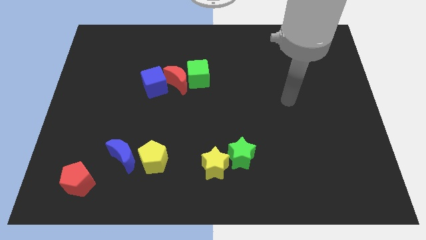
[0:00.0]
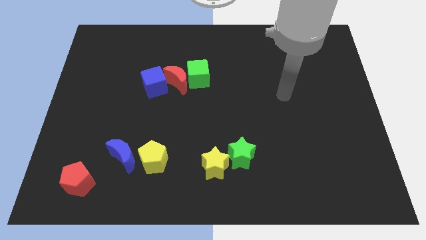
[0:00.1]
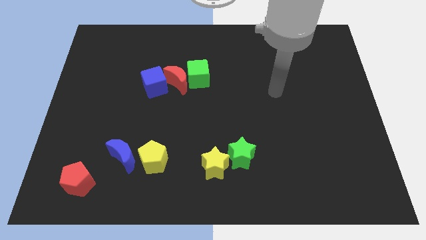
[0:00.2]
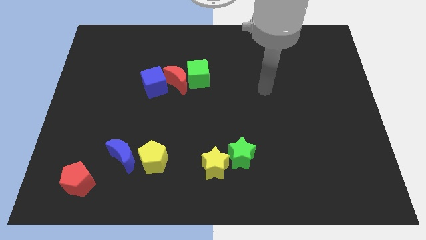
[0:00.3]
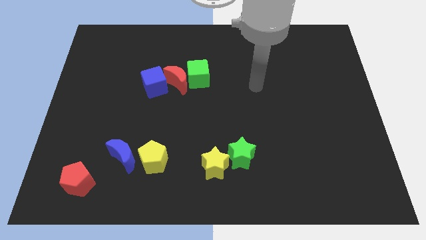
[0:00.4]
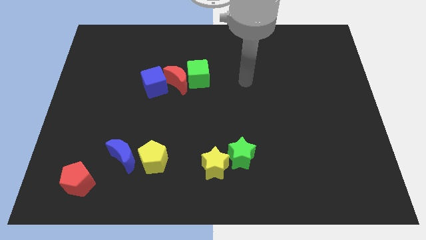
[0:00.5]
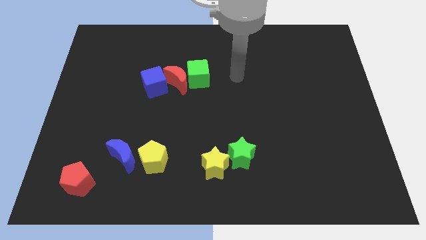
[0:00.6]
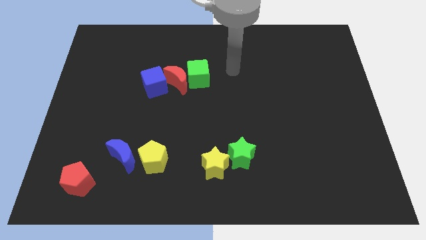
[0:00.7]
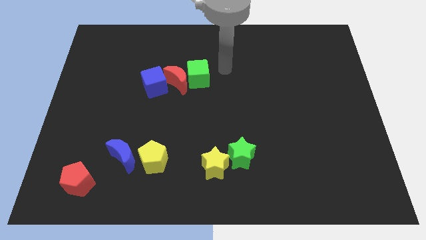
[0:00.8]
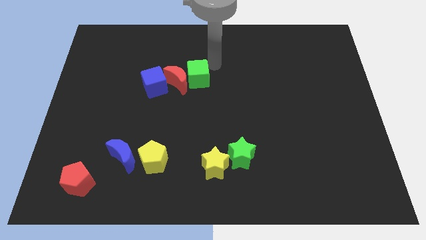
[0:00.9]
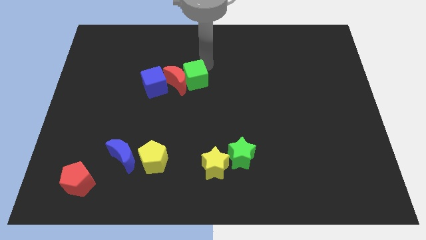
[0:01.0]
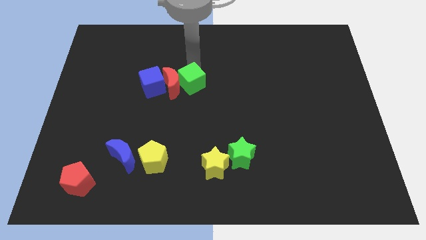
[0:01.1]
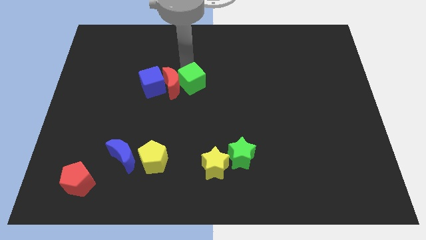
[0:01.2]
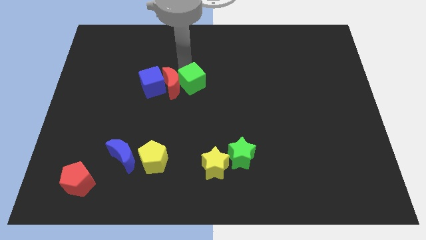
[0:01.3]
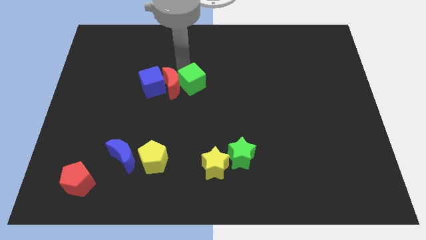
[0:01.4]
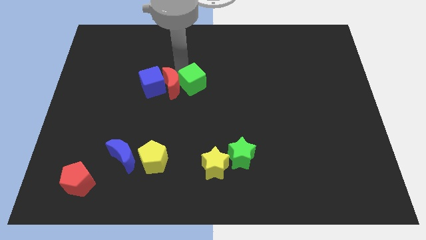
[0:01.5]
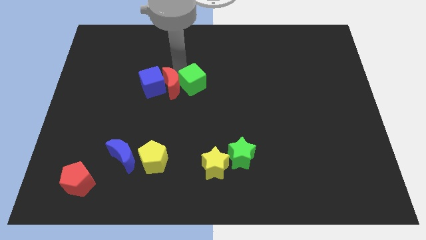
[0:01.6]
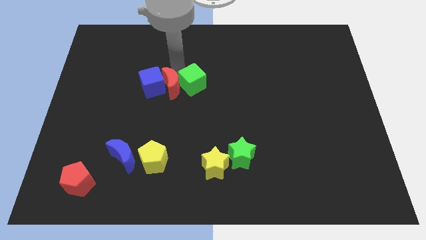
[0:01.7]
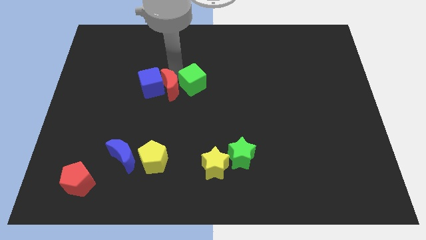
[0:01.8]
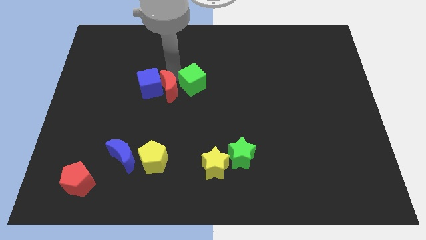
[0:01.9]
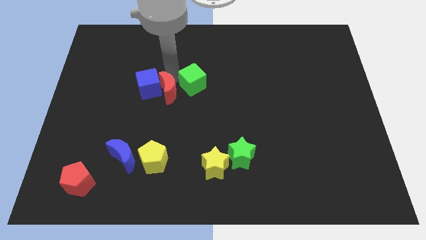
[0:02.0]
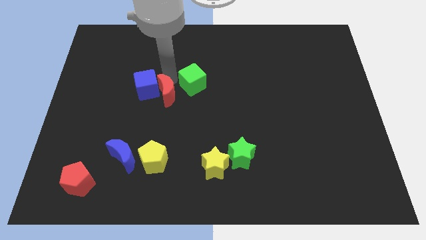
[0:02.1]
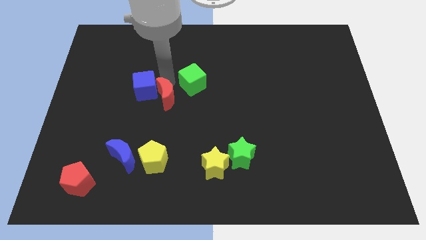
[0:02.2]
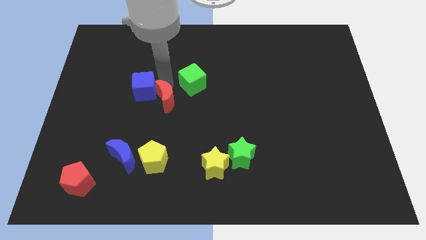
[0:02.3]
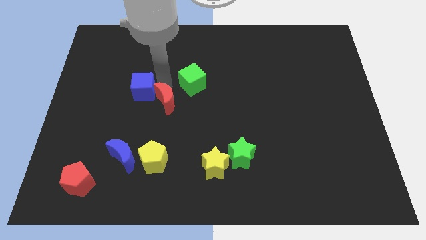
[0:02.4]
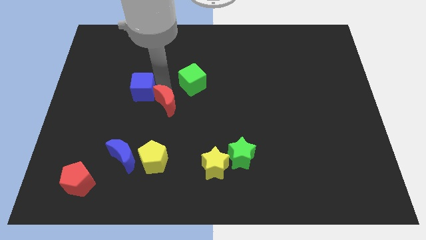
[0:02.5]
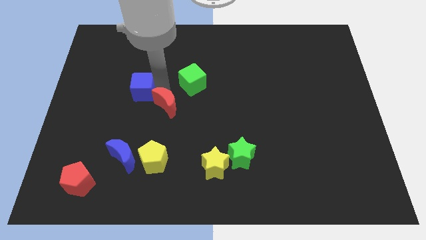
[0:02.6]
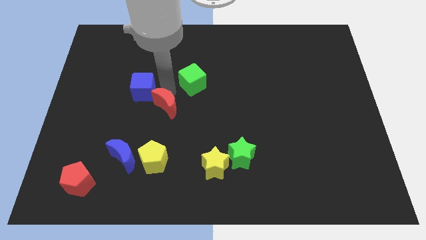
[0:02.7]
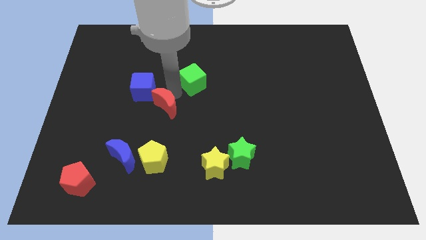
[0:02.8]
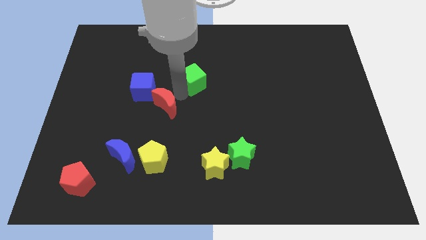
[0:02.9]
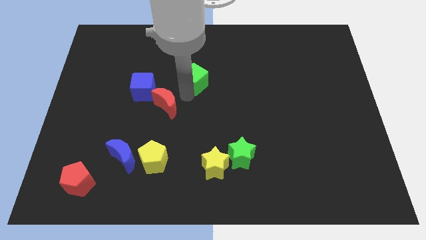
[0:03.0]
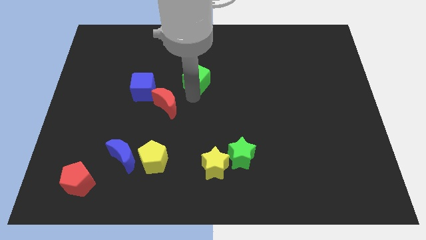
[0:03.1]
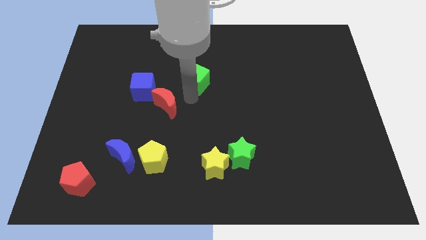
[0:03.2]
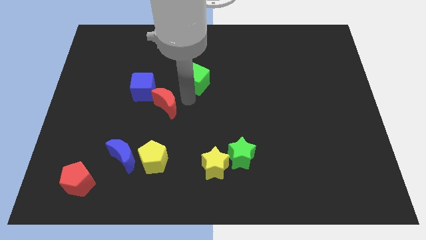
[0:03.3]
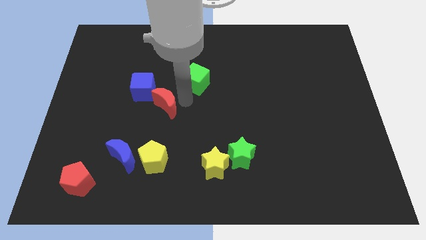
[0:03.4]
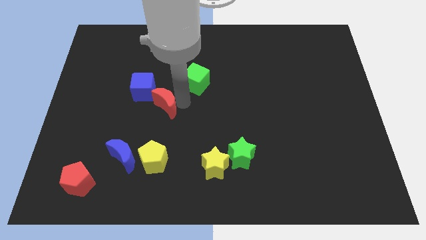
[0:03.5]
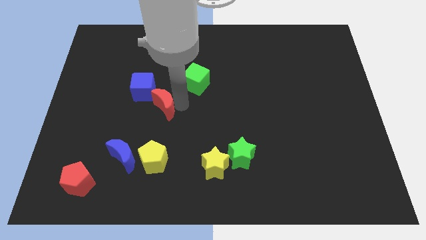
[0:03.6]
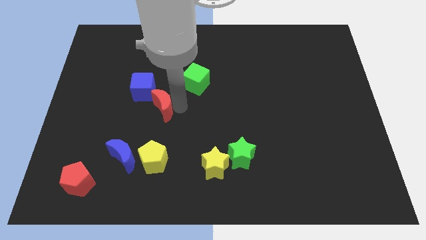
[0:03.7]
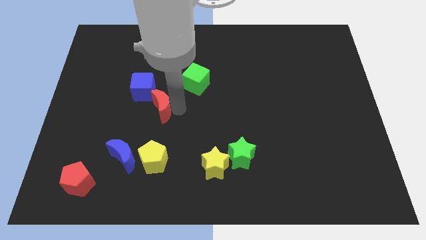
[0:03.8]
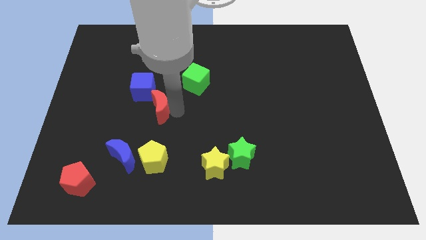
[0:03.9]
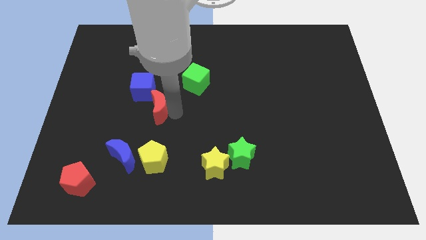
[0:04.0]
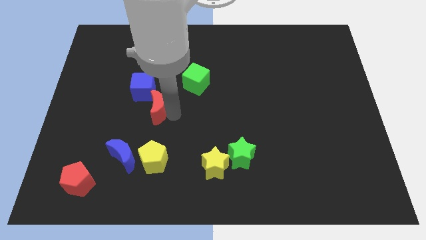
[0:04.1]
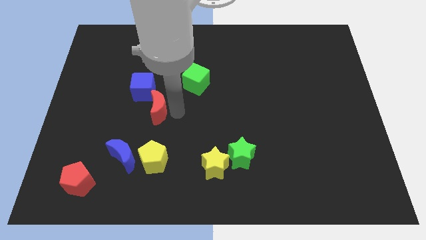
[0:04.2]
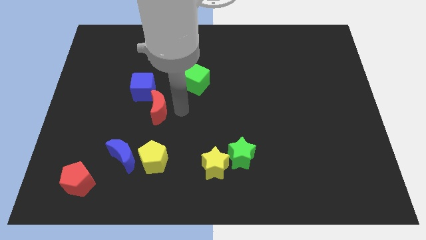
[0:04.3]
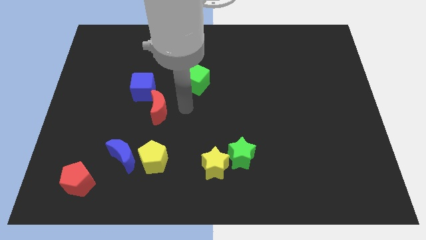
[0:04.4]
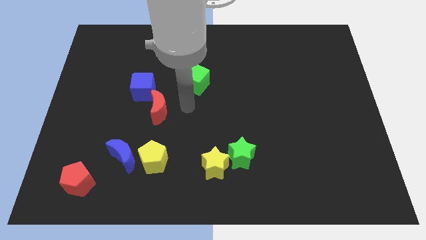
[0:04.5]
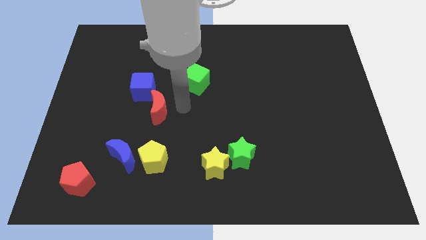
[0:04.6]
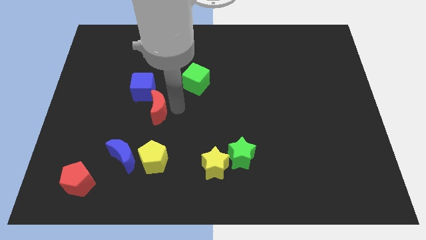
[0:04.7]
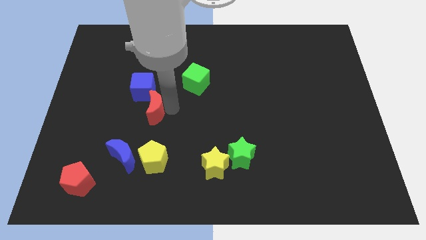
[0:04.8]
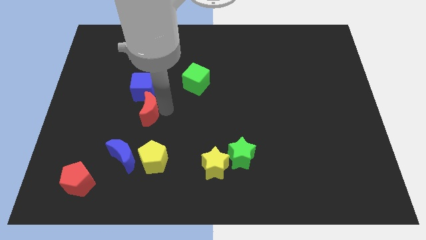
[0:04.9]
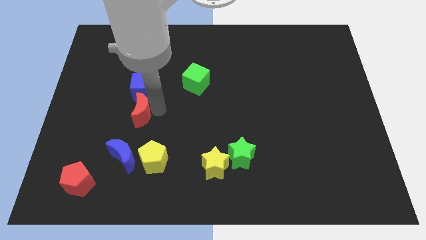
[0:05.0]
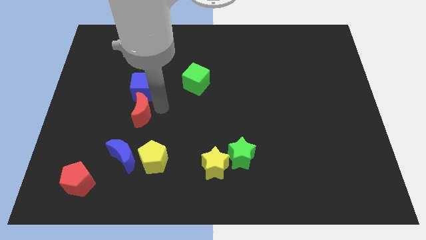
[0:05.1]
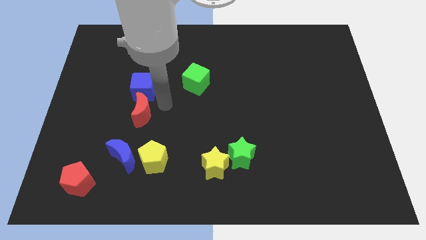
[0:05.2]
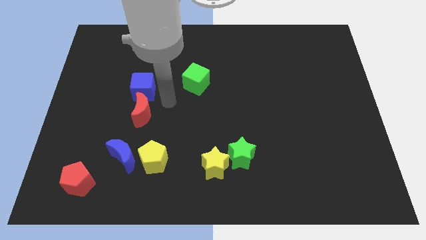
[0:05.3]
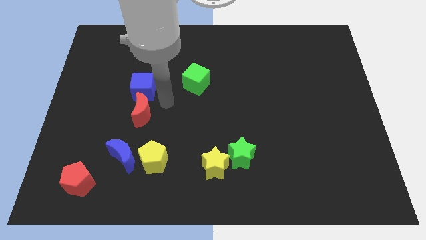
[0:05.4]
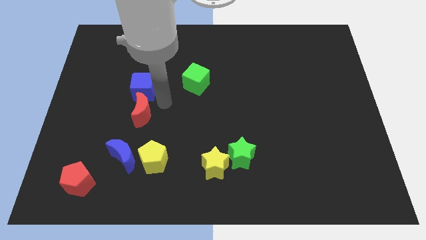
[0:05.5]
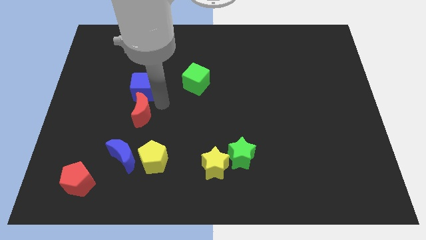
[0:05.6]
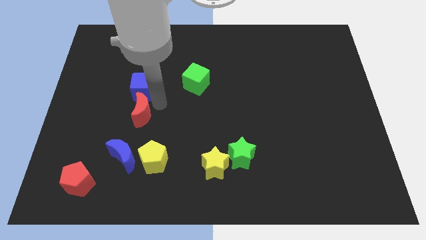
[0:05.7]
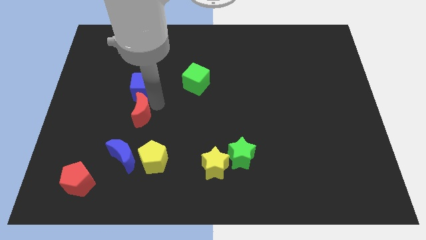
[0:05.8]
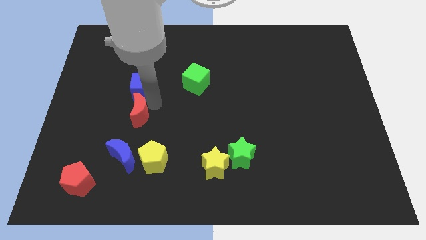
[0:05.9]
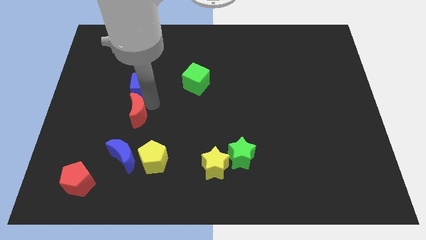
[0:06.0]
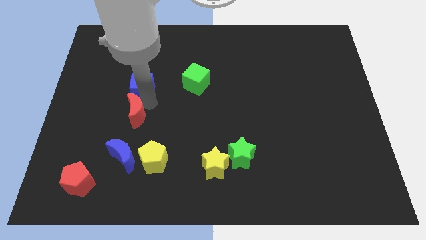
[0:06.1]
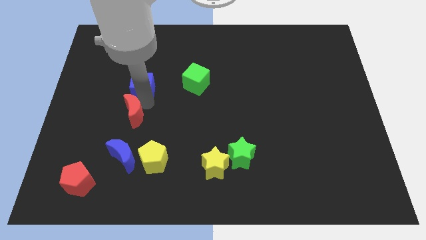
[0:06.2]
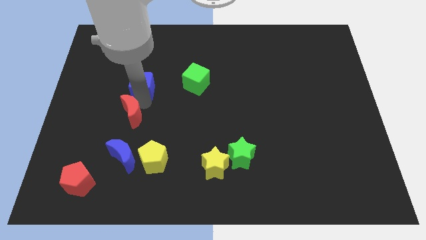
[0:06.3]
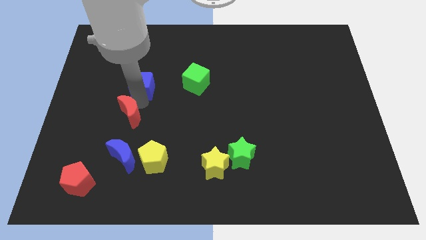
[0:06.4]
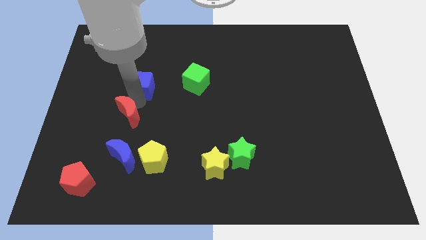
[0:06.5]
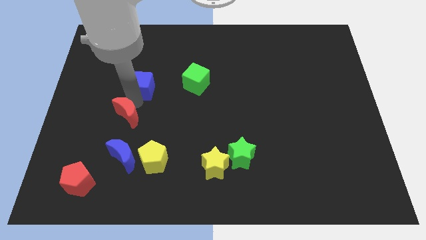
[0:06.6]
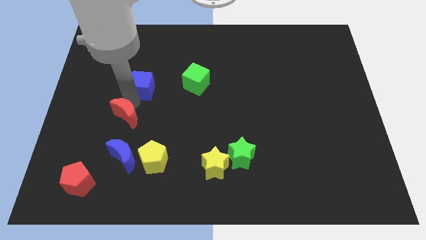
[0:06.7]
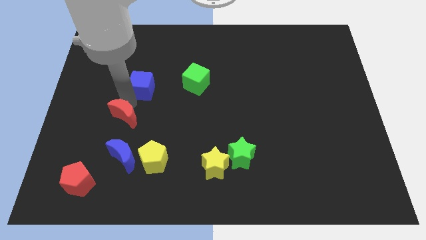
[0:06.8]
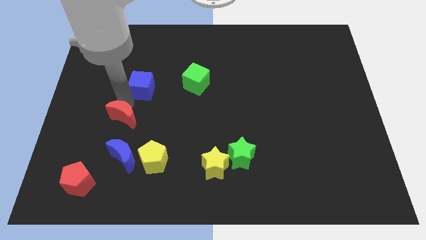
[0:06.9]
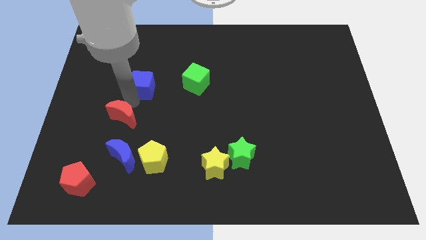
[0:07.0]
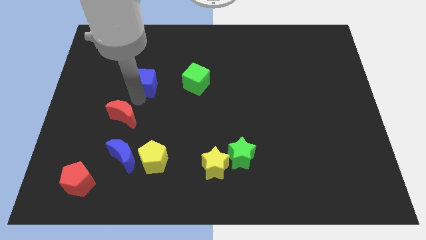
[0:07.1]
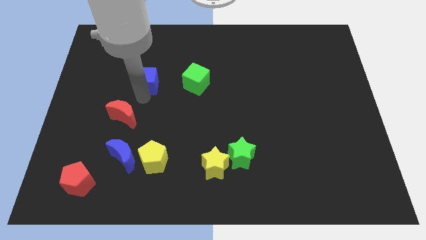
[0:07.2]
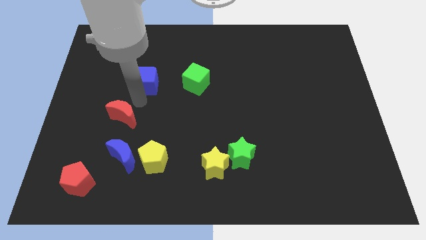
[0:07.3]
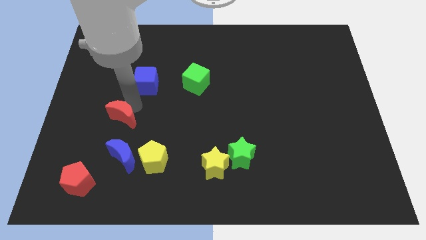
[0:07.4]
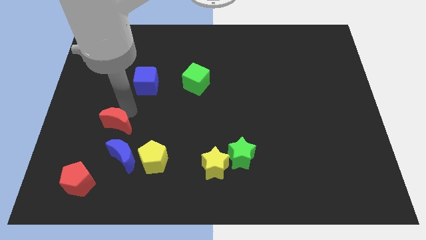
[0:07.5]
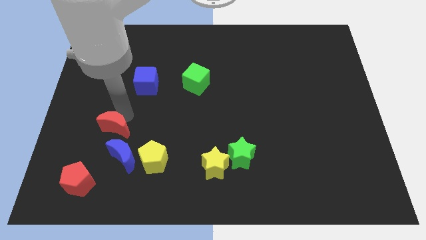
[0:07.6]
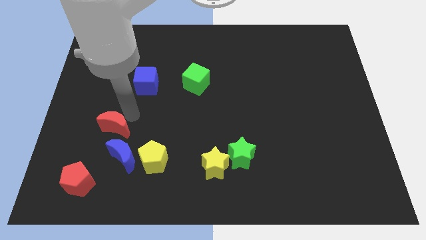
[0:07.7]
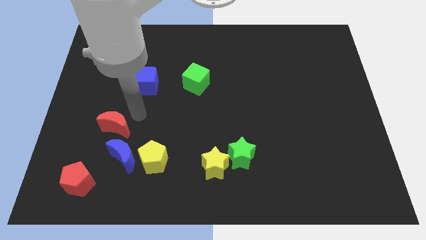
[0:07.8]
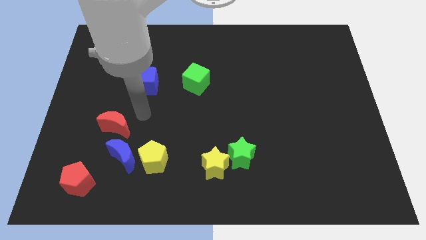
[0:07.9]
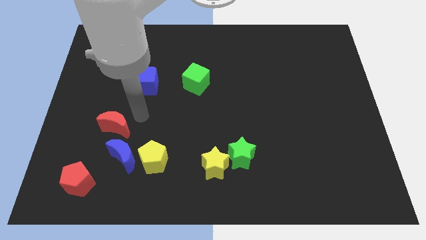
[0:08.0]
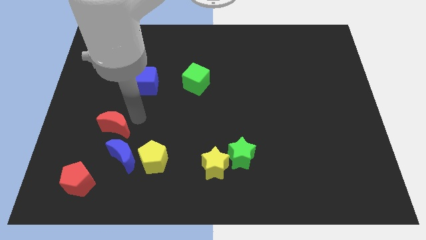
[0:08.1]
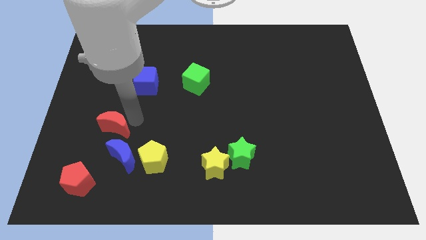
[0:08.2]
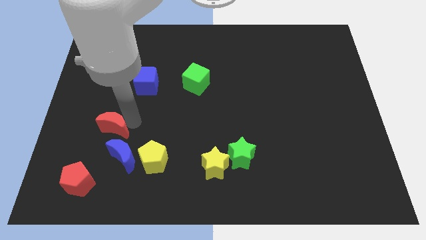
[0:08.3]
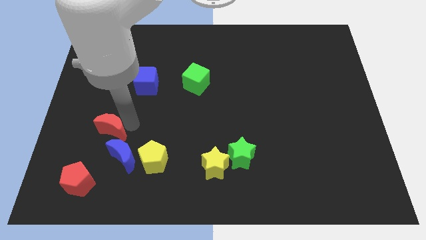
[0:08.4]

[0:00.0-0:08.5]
slide the red moon to the top of the red pentagon
